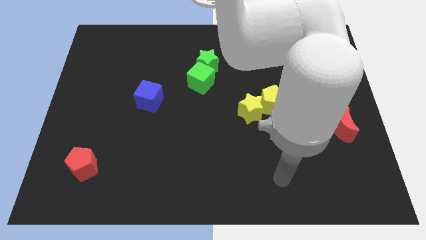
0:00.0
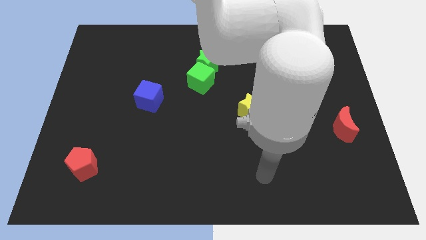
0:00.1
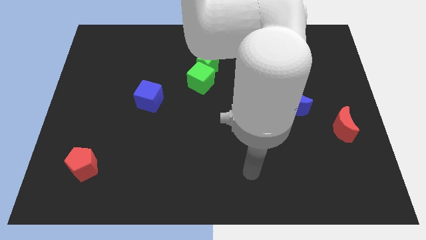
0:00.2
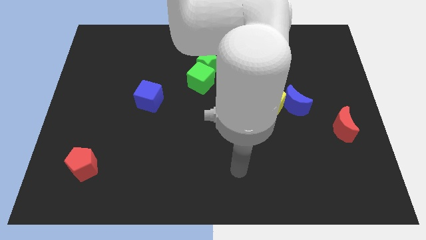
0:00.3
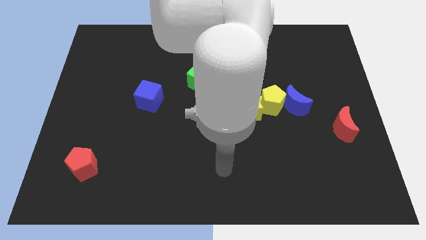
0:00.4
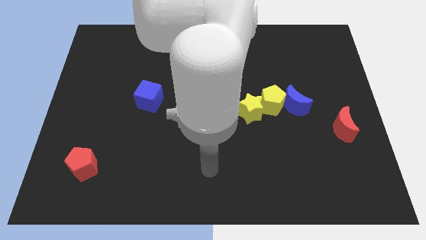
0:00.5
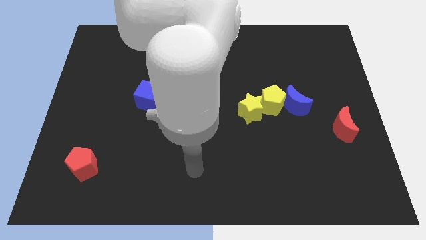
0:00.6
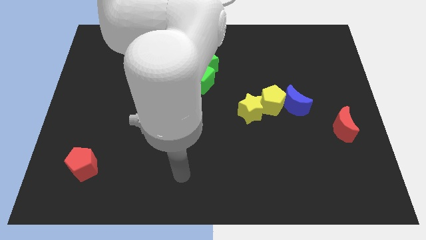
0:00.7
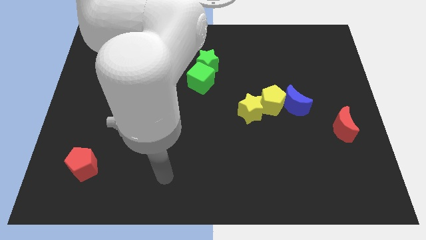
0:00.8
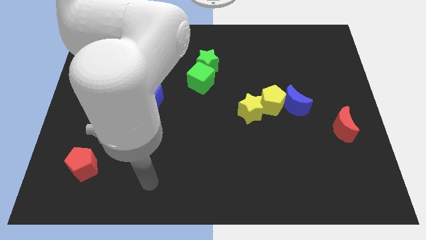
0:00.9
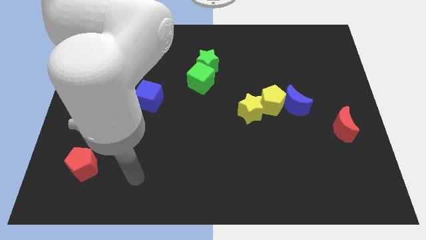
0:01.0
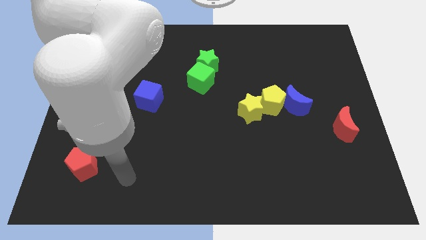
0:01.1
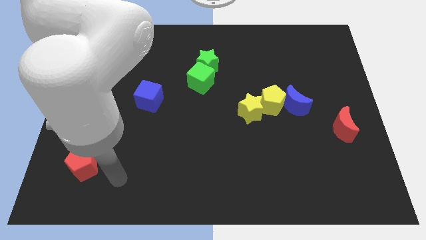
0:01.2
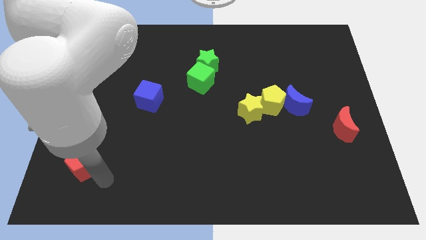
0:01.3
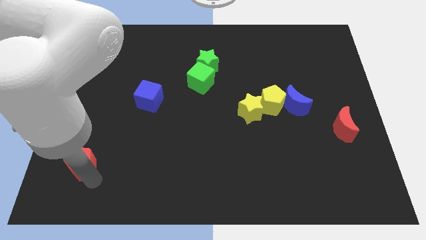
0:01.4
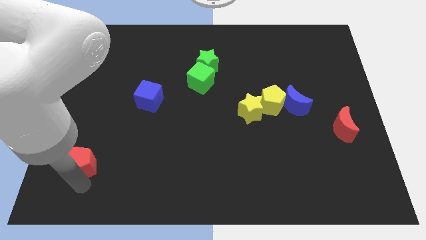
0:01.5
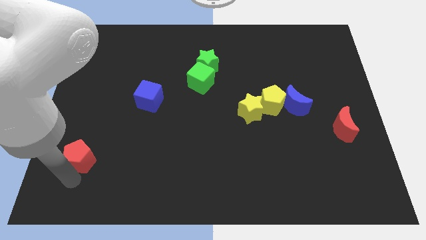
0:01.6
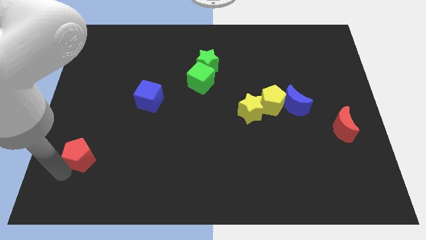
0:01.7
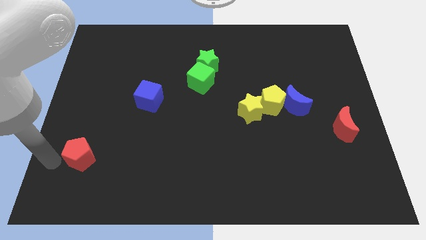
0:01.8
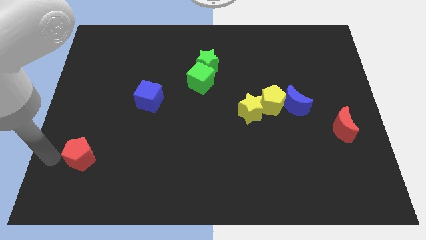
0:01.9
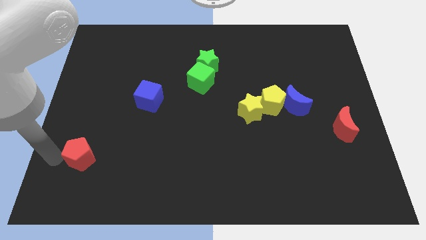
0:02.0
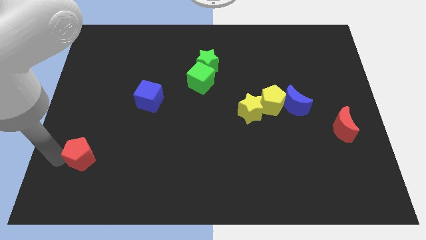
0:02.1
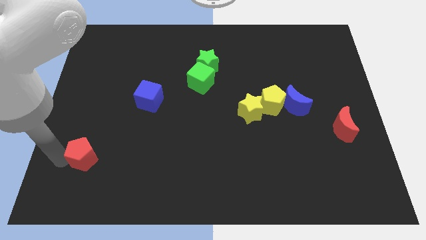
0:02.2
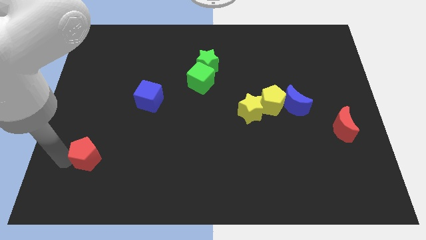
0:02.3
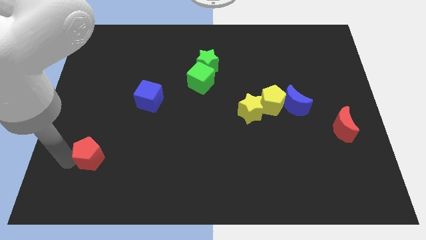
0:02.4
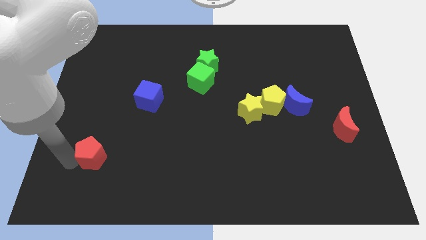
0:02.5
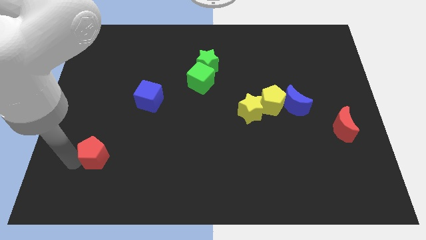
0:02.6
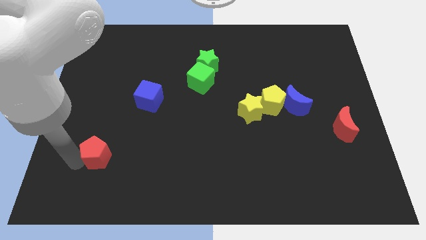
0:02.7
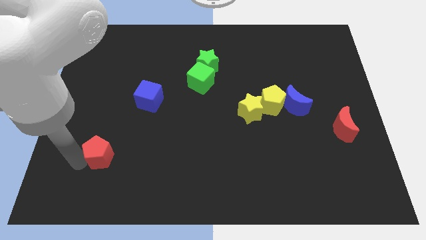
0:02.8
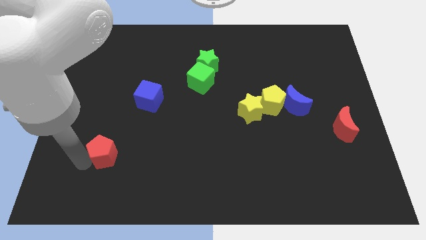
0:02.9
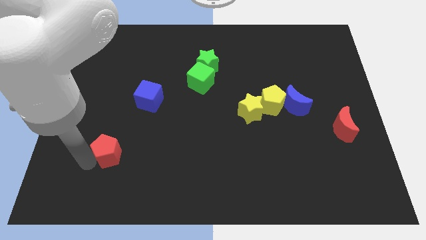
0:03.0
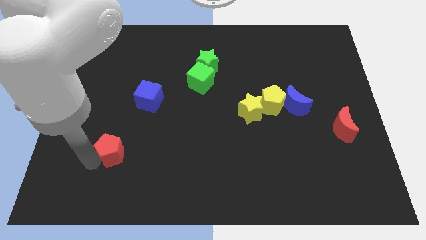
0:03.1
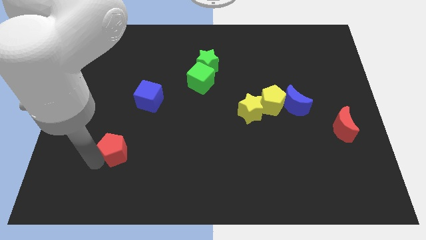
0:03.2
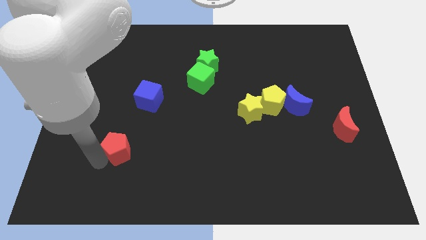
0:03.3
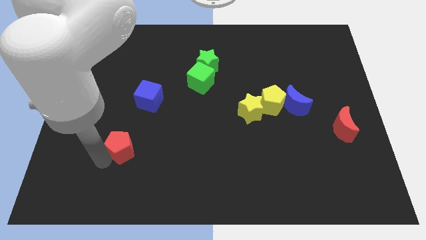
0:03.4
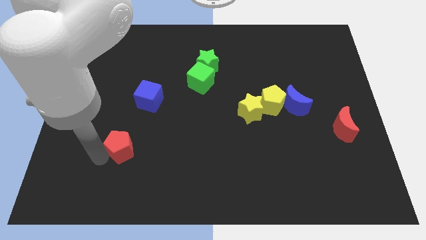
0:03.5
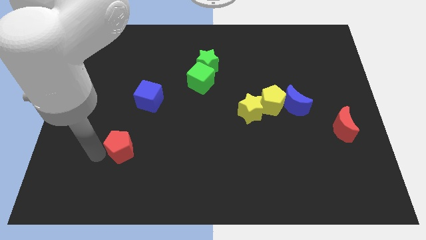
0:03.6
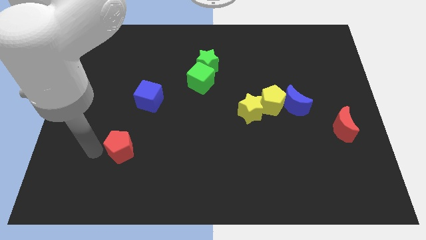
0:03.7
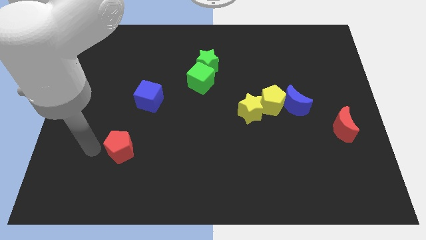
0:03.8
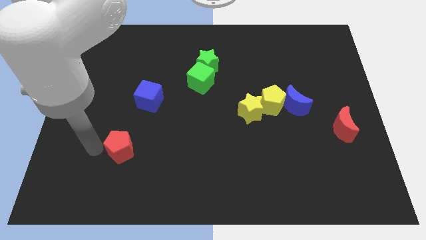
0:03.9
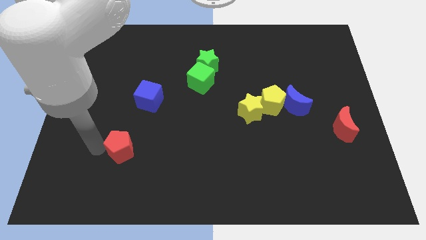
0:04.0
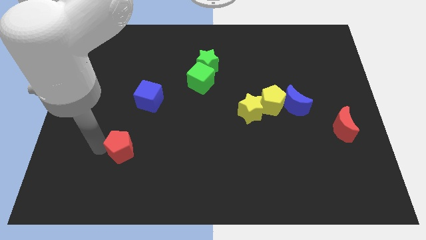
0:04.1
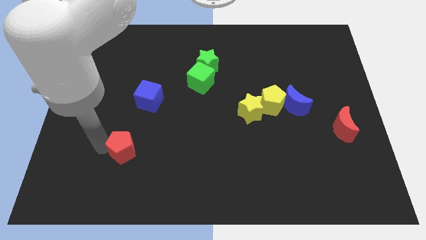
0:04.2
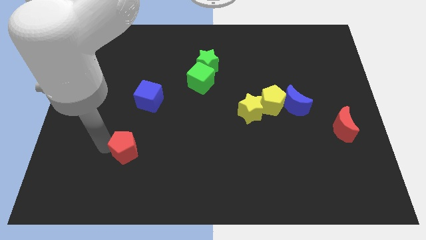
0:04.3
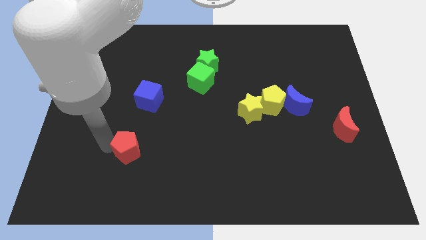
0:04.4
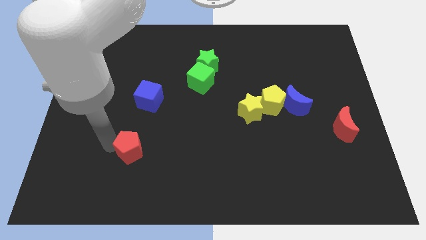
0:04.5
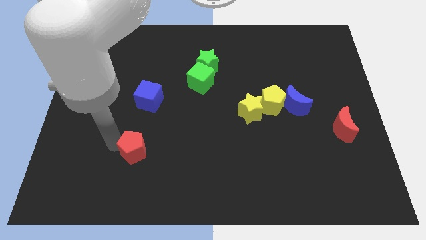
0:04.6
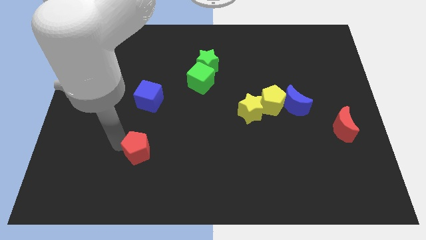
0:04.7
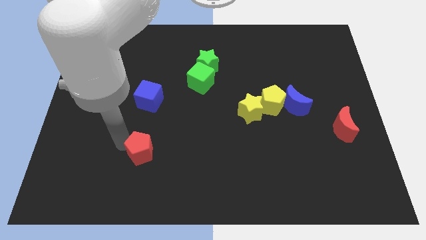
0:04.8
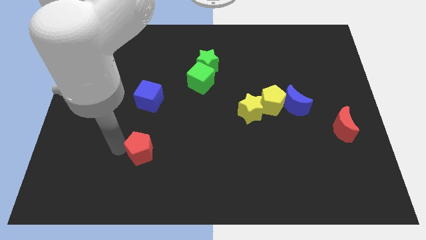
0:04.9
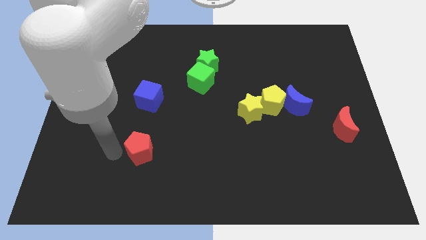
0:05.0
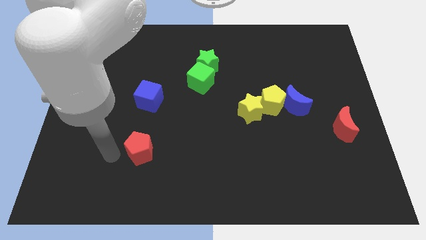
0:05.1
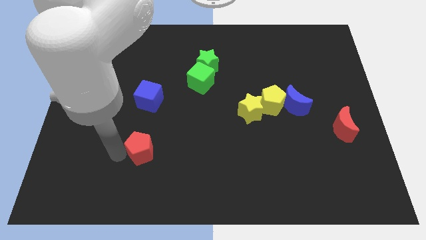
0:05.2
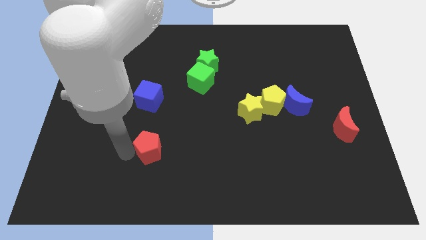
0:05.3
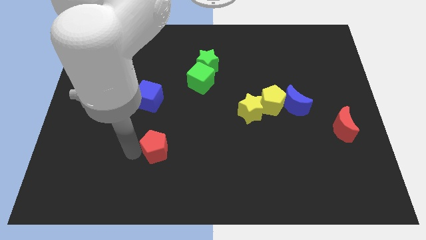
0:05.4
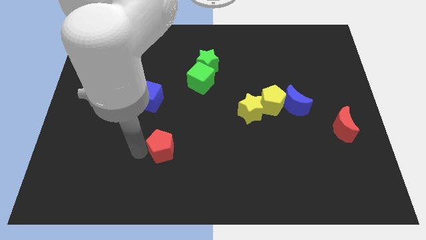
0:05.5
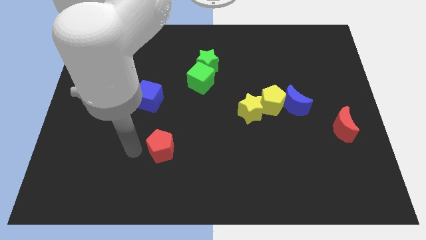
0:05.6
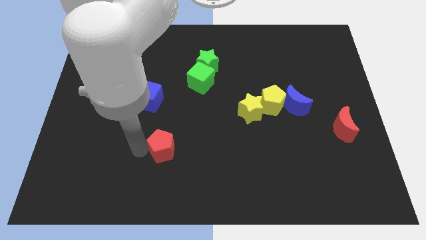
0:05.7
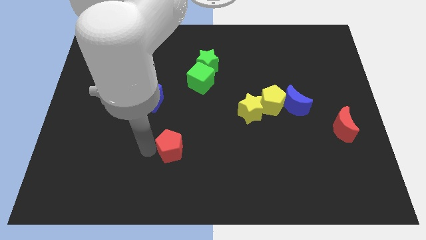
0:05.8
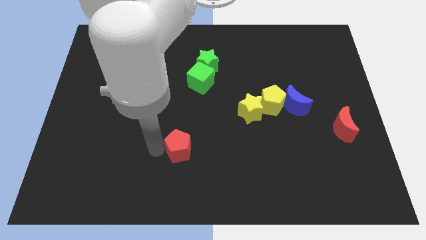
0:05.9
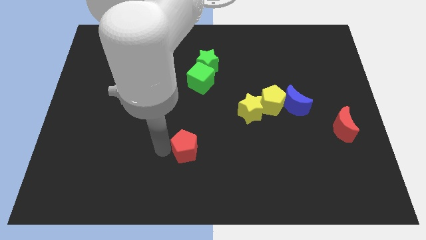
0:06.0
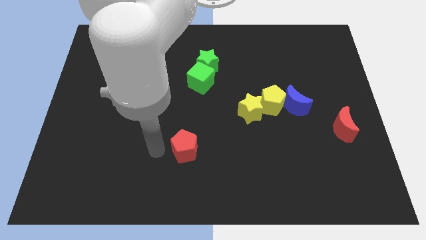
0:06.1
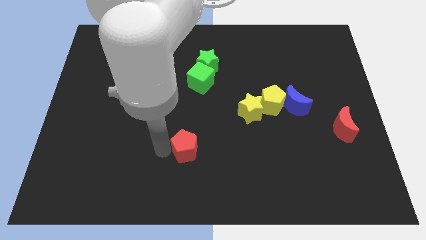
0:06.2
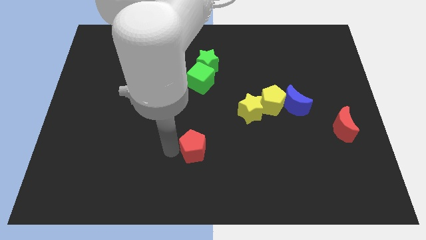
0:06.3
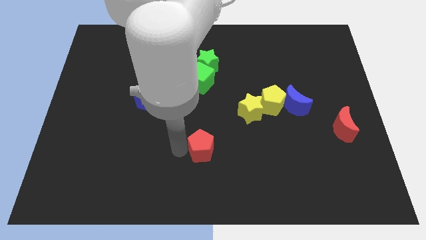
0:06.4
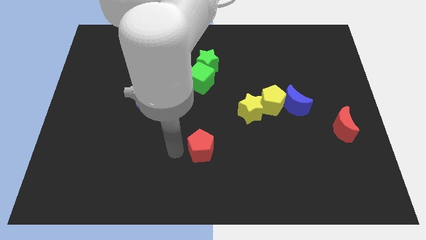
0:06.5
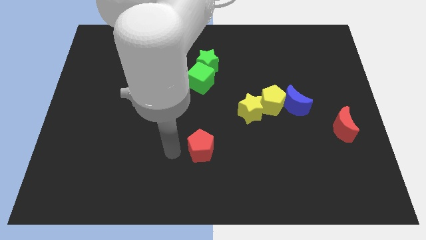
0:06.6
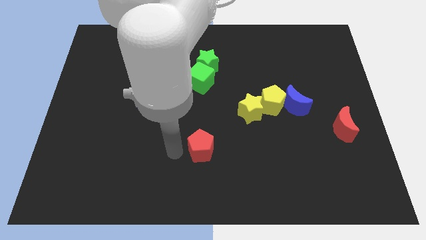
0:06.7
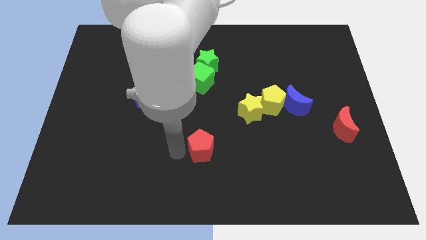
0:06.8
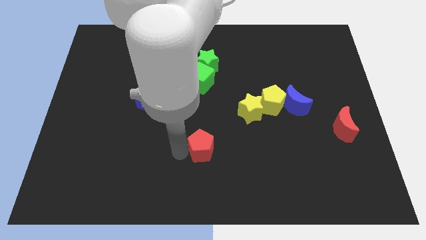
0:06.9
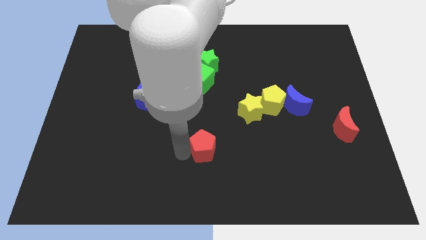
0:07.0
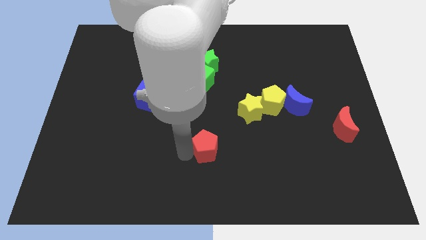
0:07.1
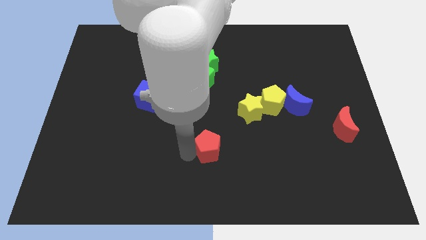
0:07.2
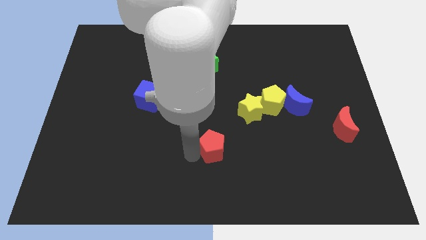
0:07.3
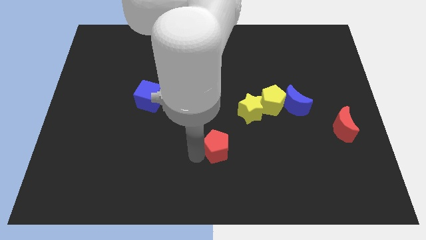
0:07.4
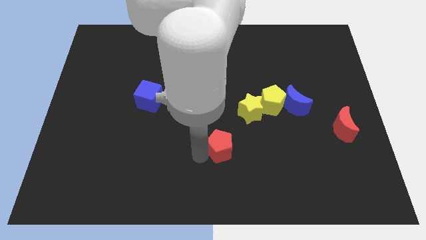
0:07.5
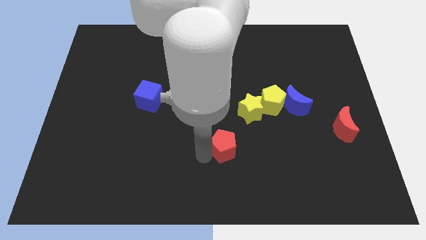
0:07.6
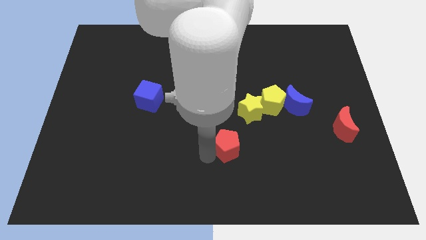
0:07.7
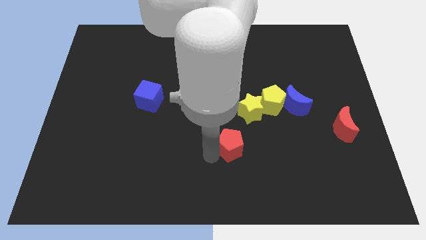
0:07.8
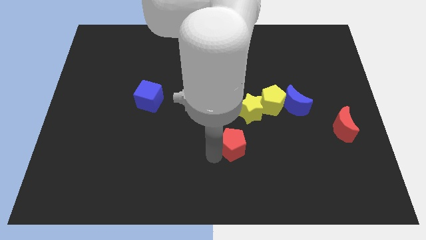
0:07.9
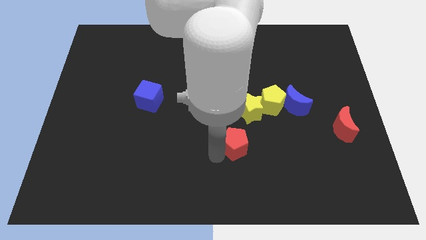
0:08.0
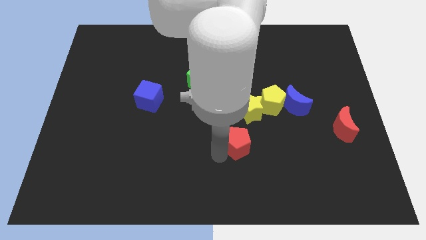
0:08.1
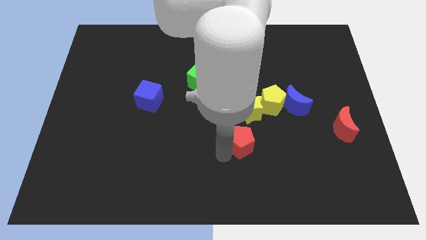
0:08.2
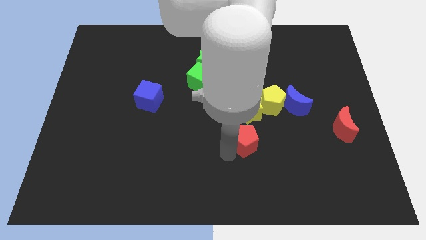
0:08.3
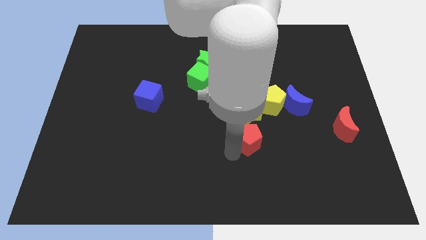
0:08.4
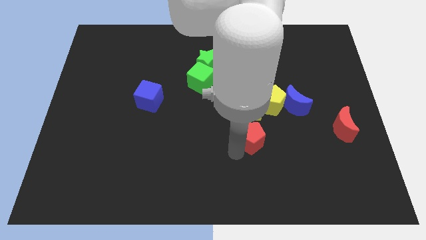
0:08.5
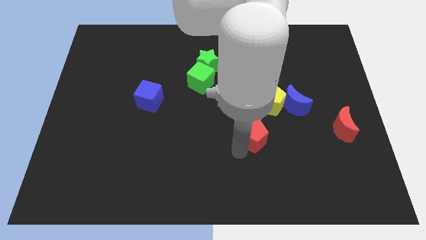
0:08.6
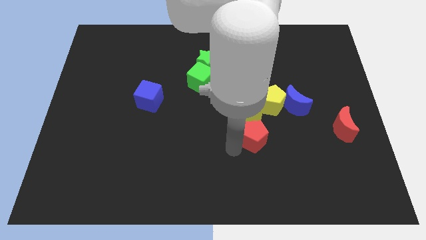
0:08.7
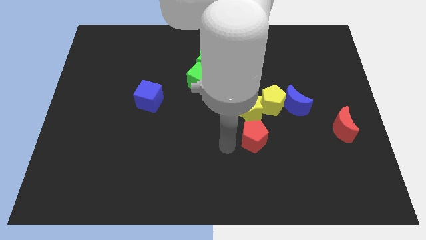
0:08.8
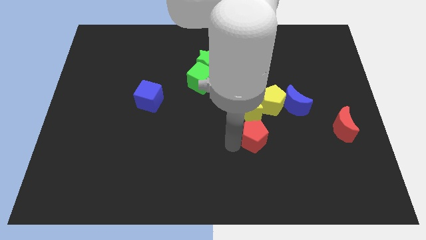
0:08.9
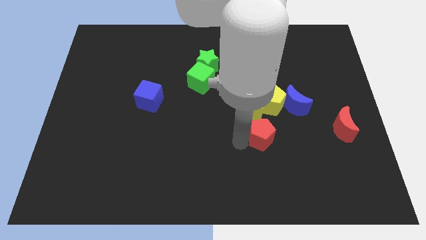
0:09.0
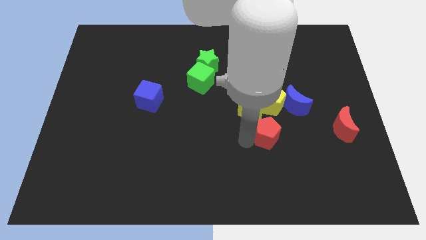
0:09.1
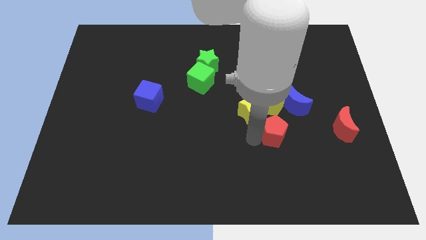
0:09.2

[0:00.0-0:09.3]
put the red pentagon to the left side of the red moon
